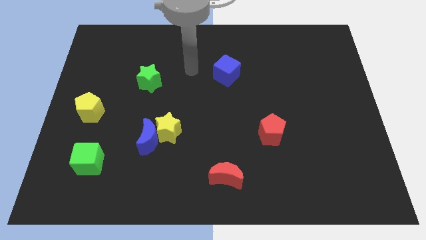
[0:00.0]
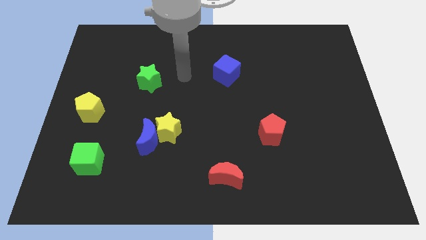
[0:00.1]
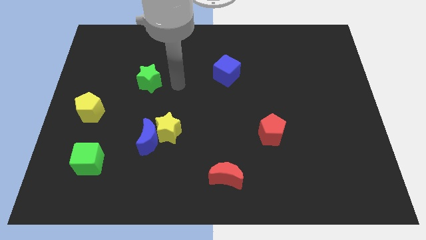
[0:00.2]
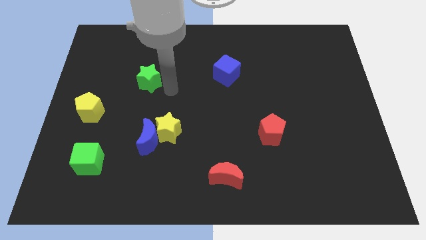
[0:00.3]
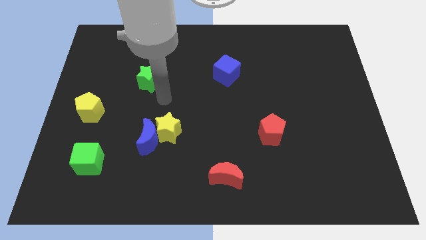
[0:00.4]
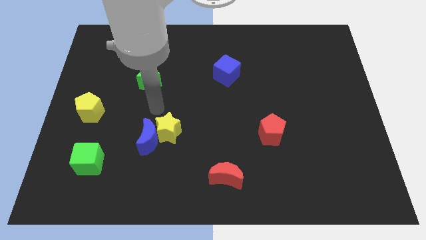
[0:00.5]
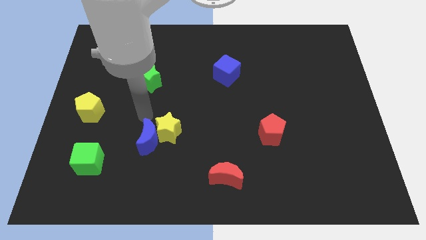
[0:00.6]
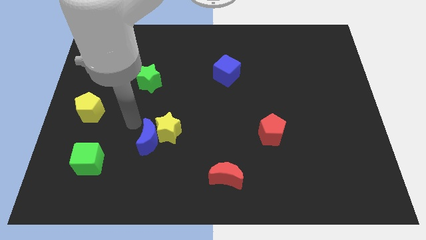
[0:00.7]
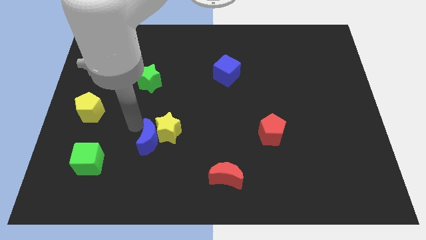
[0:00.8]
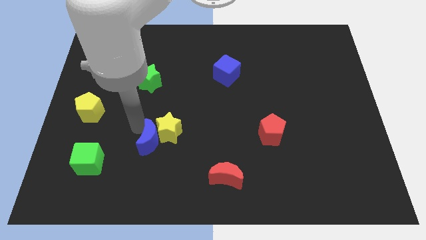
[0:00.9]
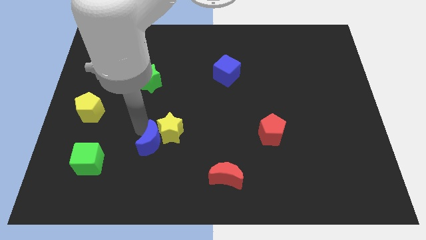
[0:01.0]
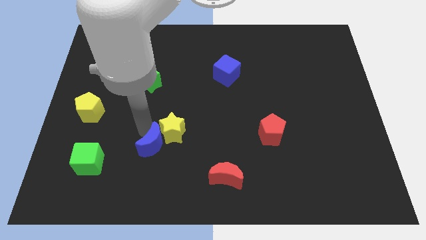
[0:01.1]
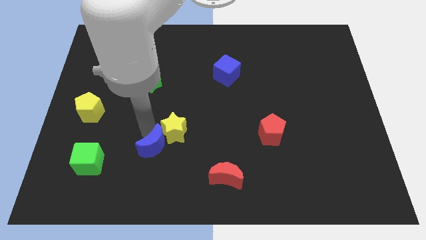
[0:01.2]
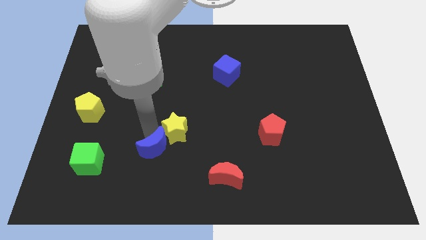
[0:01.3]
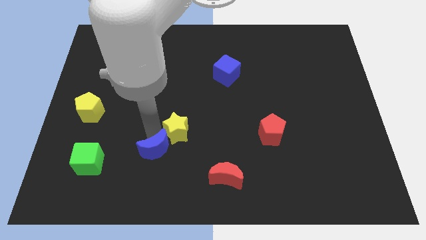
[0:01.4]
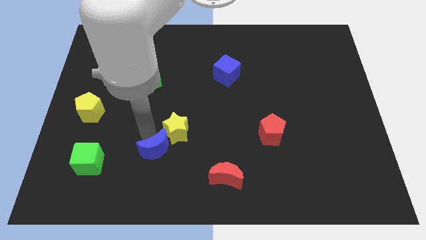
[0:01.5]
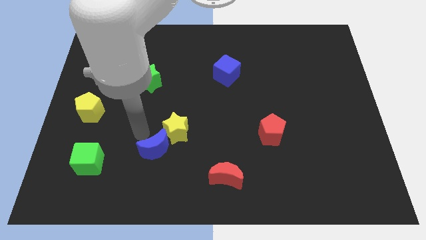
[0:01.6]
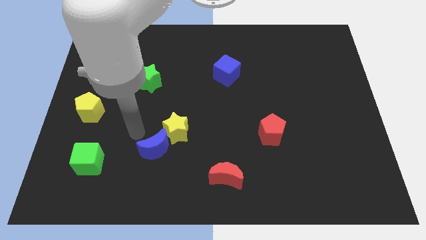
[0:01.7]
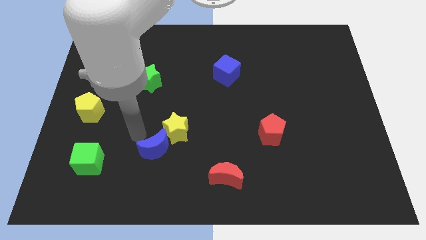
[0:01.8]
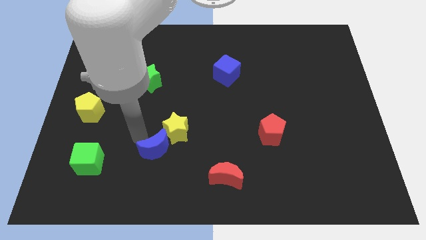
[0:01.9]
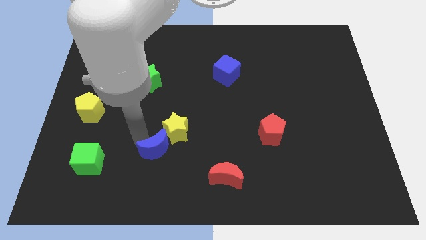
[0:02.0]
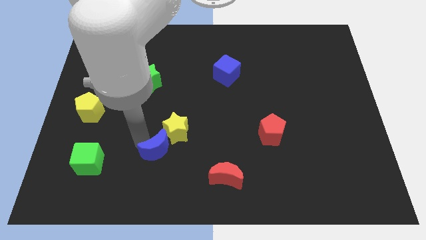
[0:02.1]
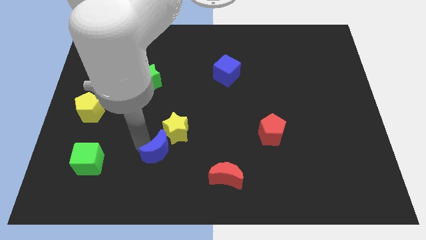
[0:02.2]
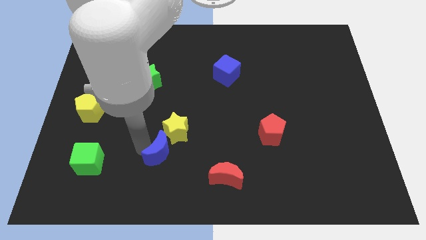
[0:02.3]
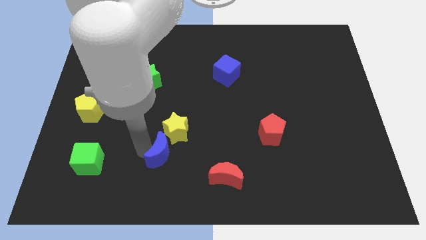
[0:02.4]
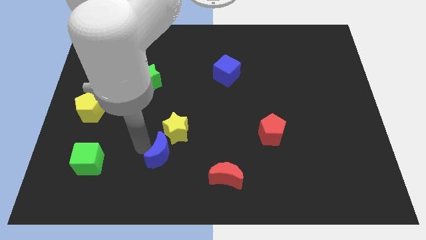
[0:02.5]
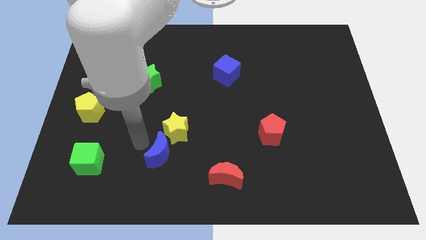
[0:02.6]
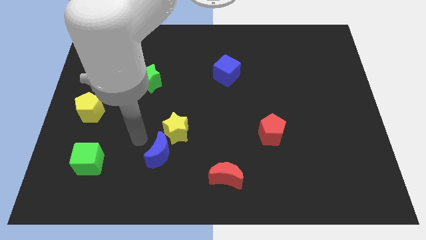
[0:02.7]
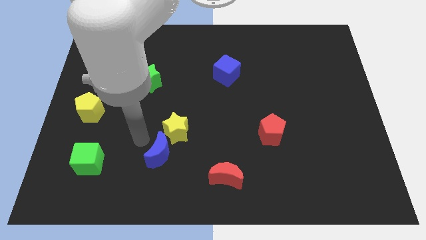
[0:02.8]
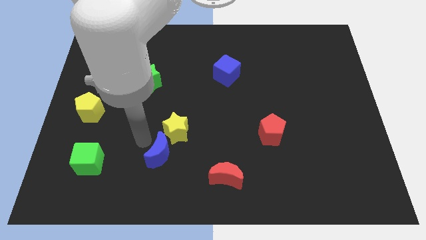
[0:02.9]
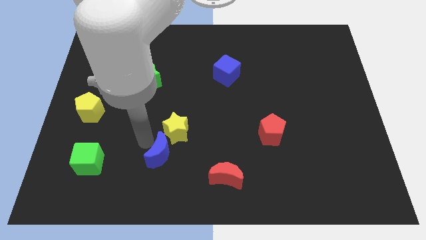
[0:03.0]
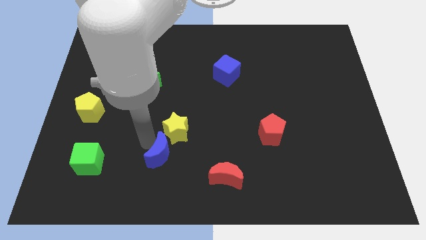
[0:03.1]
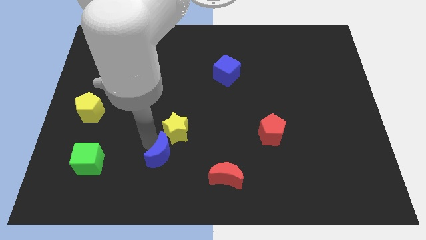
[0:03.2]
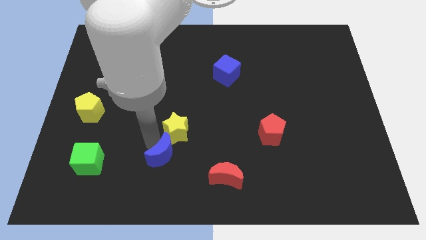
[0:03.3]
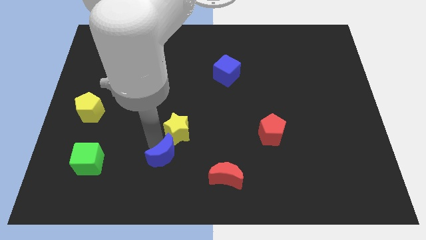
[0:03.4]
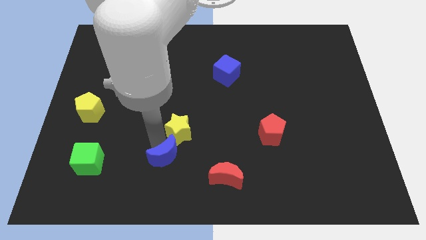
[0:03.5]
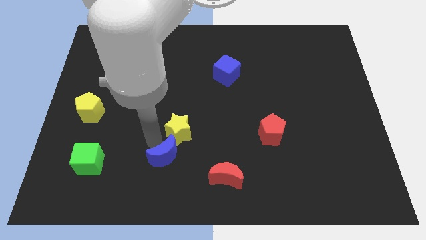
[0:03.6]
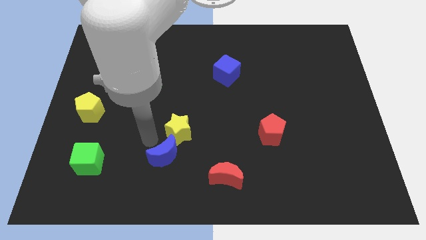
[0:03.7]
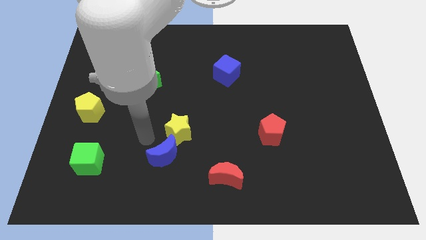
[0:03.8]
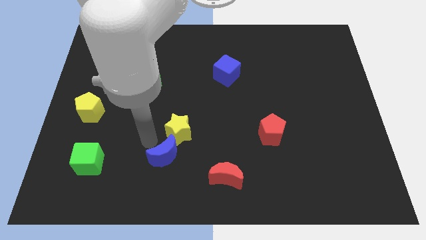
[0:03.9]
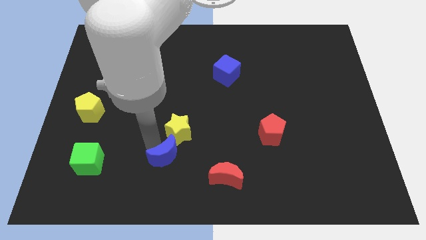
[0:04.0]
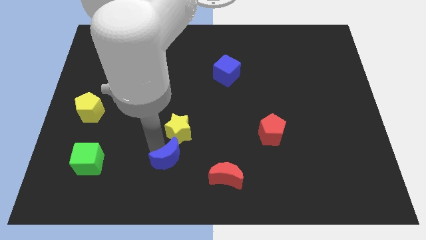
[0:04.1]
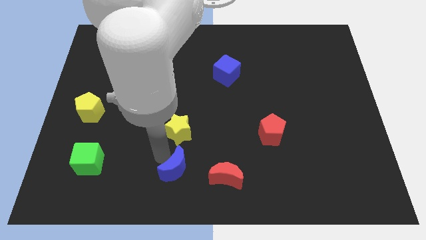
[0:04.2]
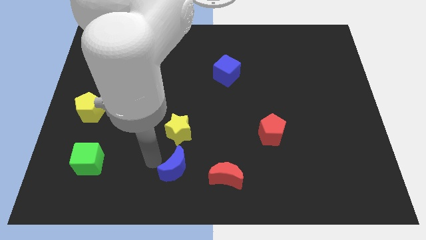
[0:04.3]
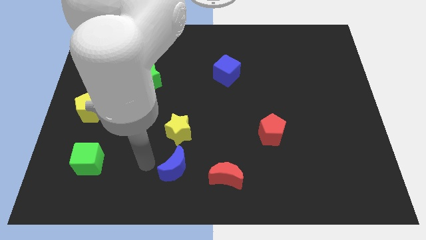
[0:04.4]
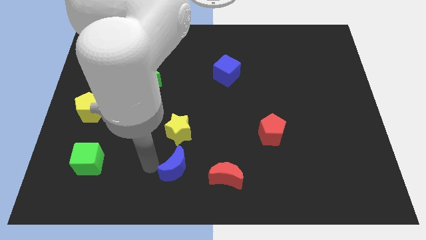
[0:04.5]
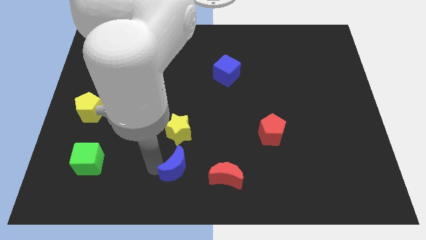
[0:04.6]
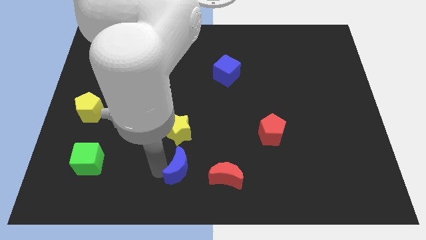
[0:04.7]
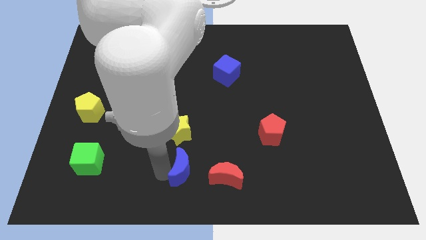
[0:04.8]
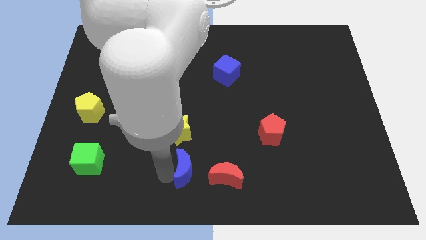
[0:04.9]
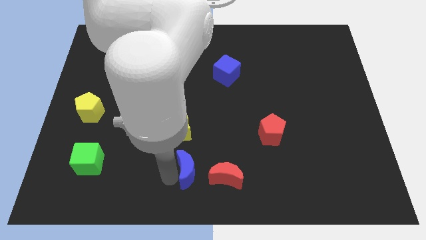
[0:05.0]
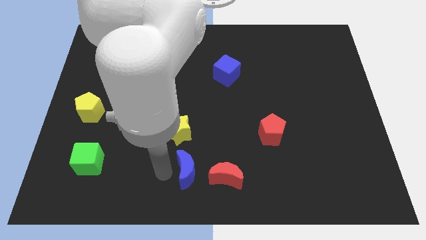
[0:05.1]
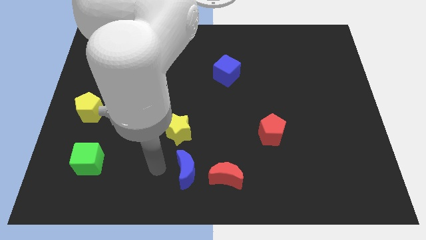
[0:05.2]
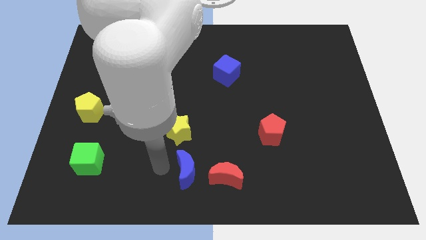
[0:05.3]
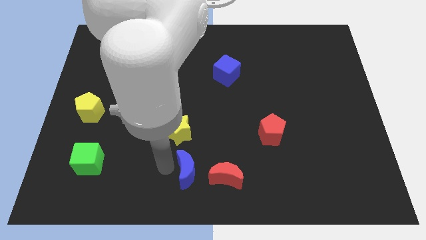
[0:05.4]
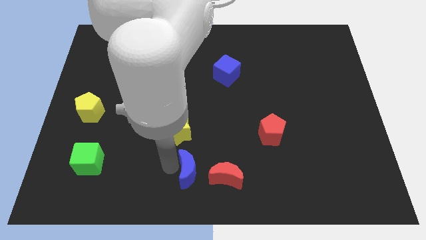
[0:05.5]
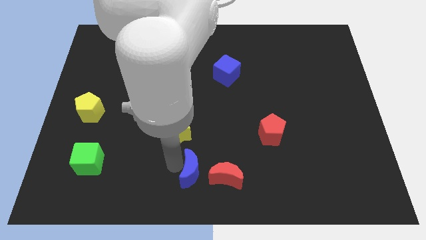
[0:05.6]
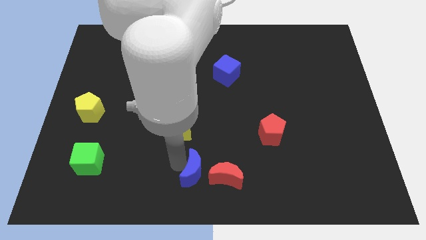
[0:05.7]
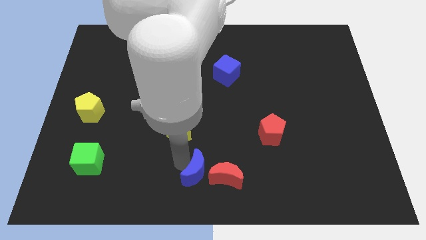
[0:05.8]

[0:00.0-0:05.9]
put the blue moon towards the red moon
